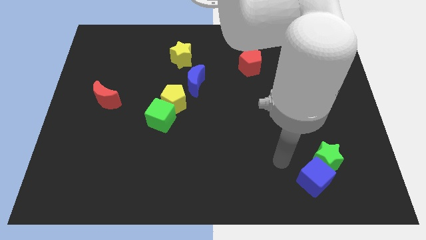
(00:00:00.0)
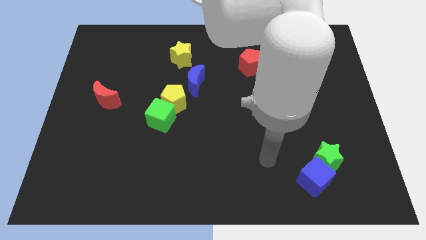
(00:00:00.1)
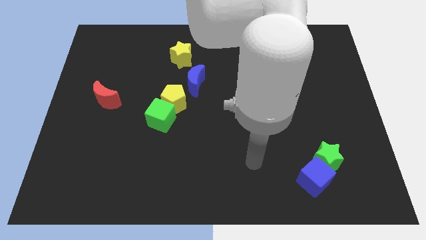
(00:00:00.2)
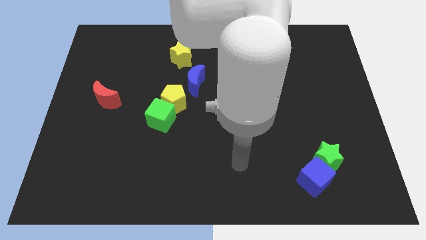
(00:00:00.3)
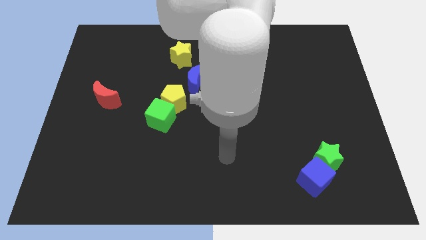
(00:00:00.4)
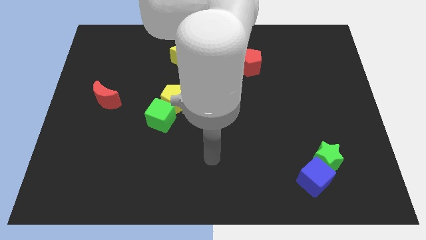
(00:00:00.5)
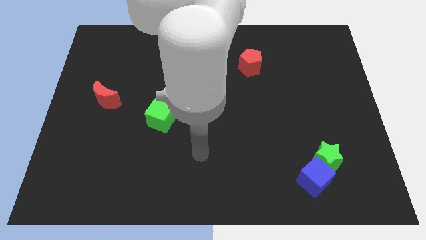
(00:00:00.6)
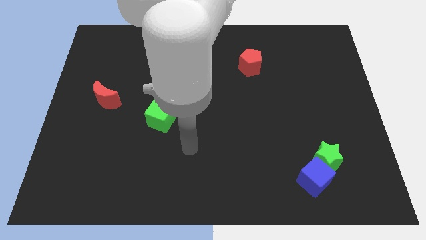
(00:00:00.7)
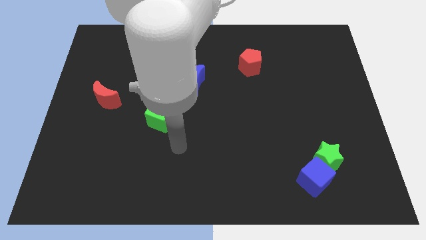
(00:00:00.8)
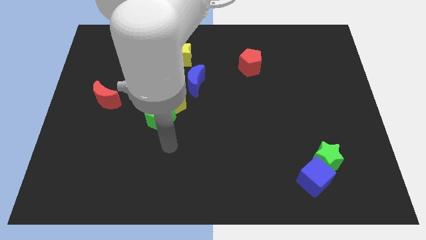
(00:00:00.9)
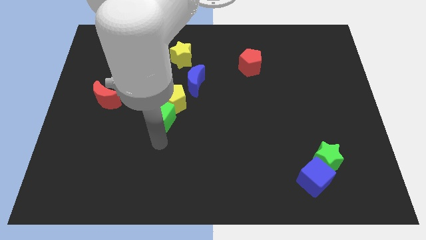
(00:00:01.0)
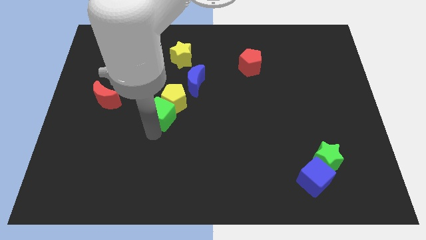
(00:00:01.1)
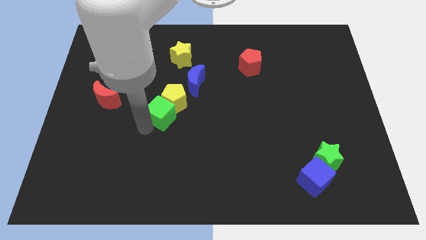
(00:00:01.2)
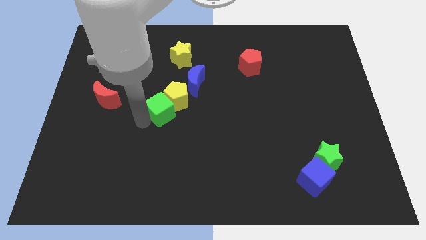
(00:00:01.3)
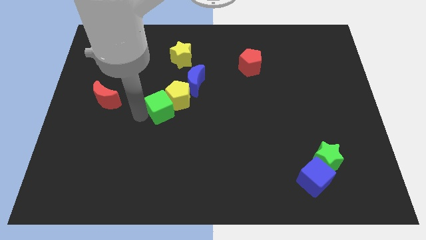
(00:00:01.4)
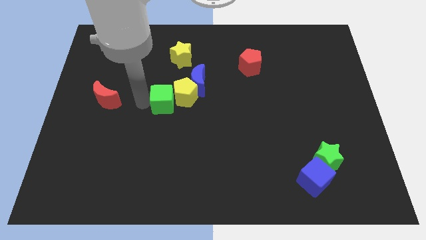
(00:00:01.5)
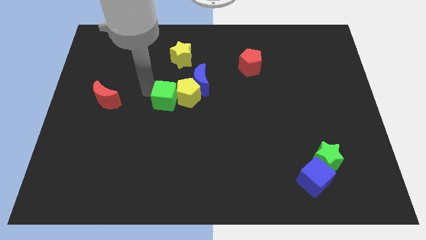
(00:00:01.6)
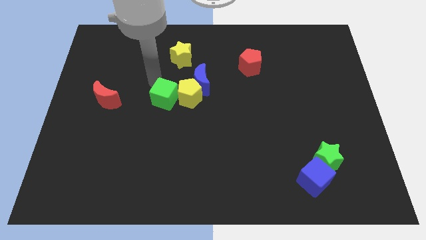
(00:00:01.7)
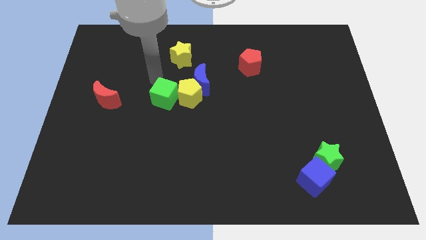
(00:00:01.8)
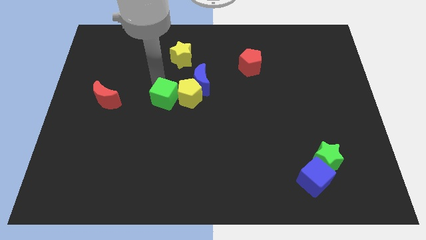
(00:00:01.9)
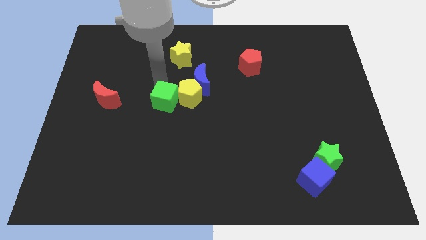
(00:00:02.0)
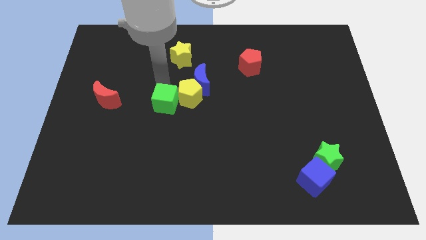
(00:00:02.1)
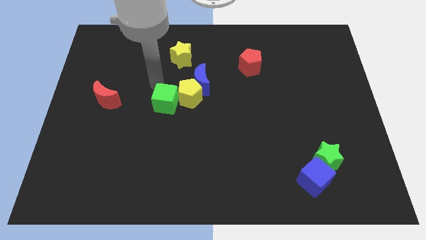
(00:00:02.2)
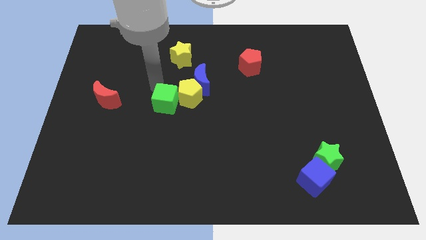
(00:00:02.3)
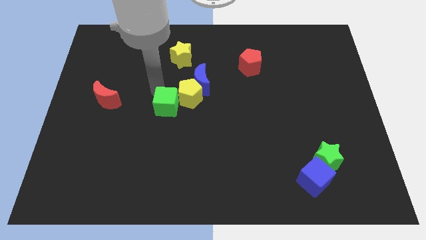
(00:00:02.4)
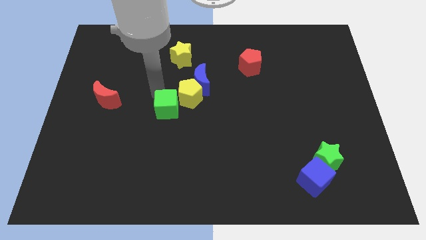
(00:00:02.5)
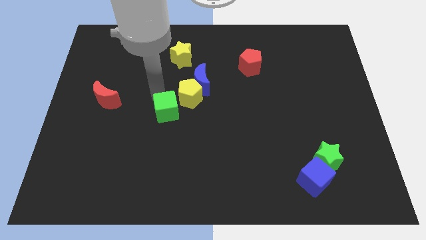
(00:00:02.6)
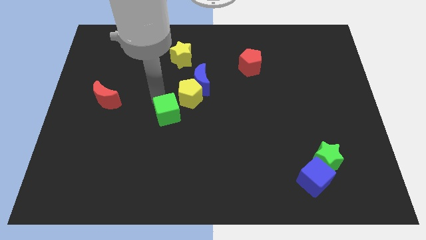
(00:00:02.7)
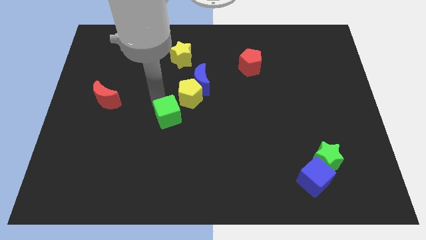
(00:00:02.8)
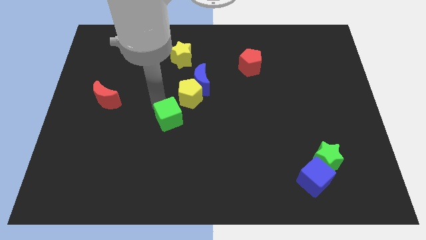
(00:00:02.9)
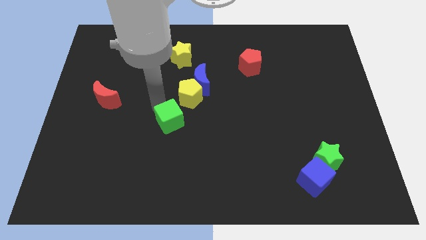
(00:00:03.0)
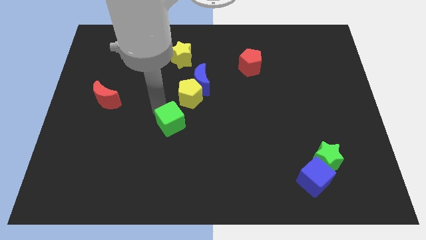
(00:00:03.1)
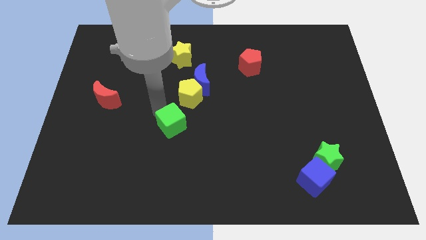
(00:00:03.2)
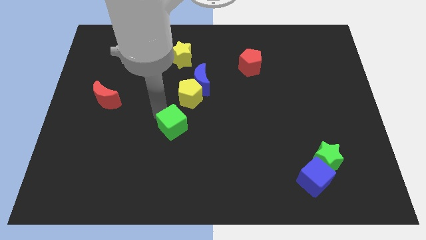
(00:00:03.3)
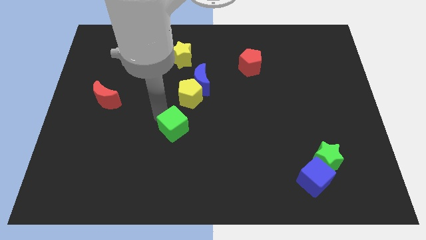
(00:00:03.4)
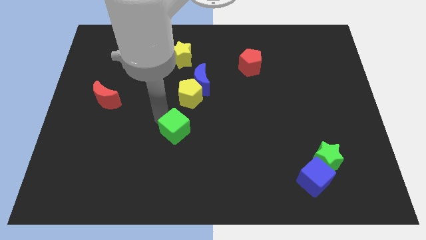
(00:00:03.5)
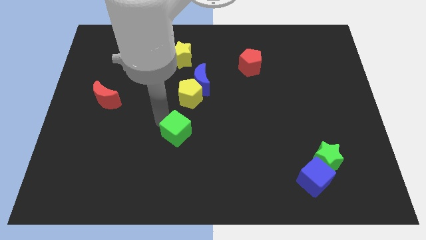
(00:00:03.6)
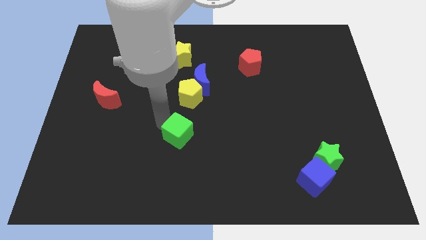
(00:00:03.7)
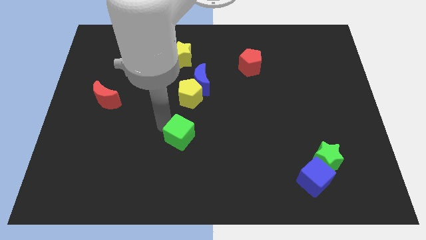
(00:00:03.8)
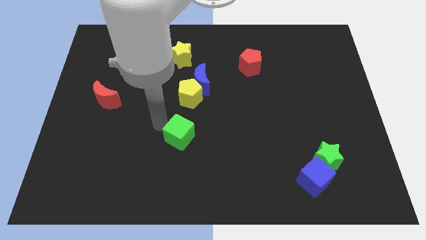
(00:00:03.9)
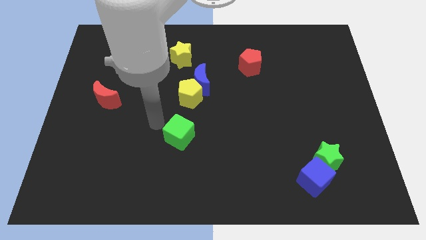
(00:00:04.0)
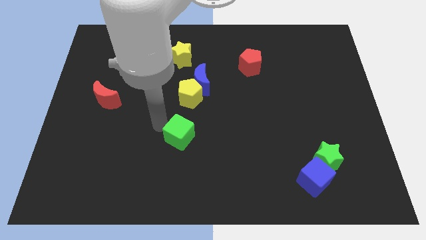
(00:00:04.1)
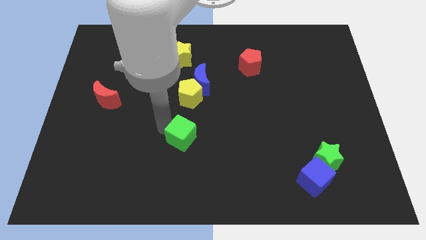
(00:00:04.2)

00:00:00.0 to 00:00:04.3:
slide the green cube down and right diagonally somewhat

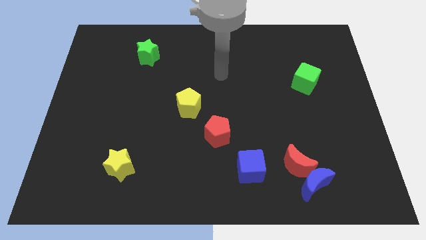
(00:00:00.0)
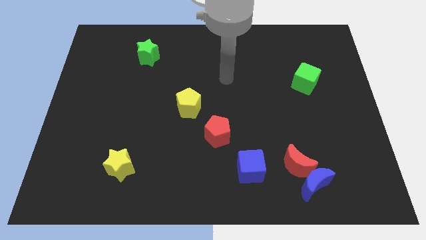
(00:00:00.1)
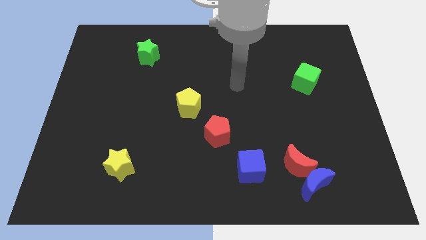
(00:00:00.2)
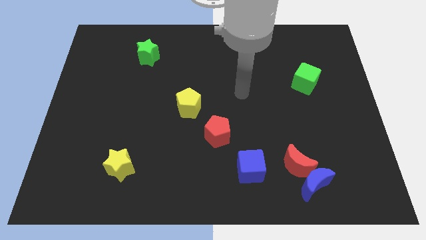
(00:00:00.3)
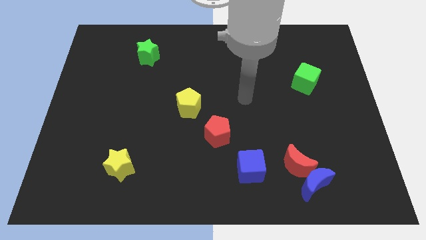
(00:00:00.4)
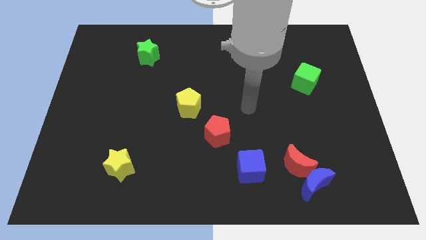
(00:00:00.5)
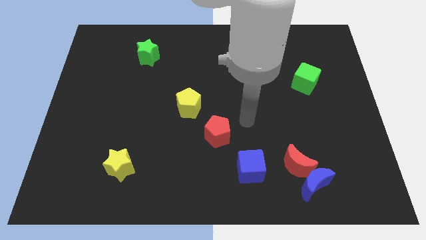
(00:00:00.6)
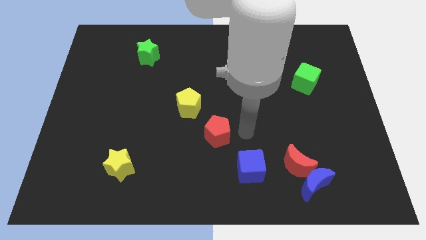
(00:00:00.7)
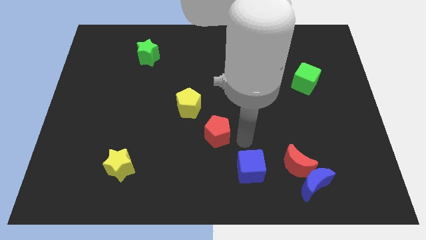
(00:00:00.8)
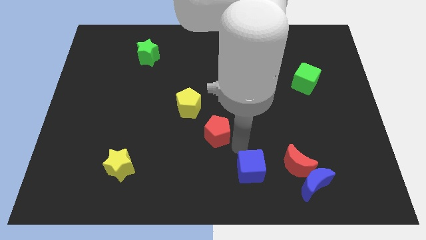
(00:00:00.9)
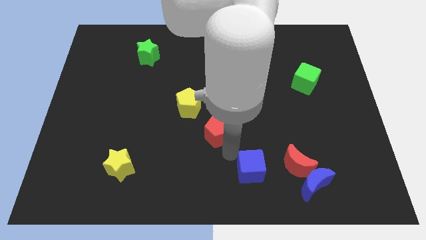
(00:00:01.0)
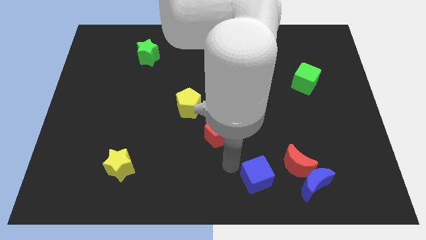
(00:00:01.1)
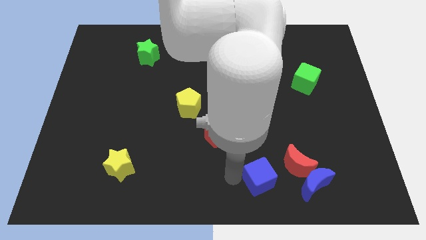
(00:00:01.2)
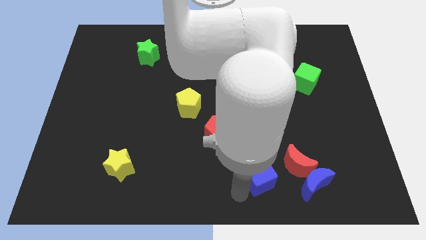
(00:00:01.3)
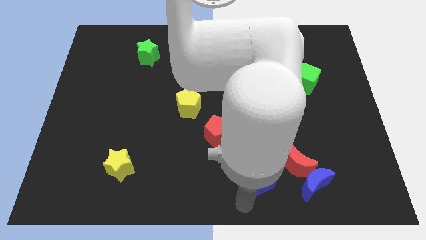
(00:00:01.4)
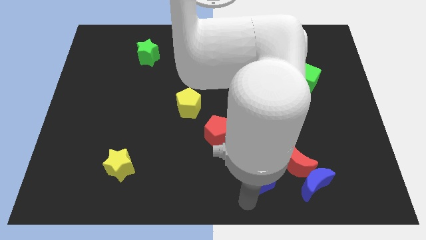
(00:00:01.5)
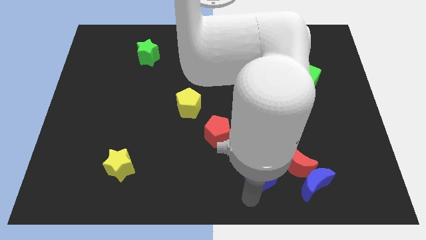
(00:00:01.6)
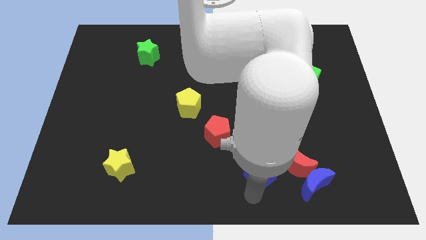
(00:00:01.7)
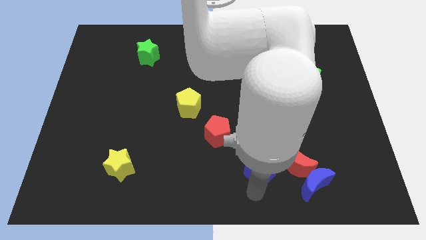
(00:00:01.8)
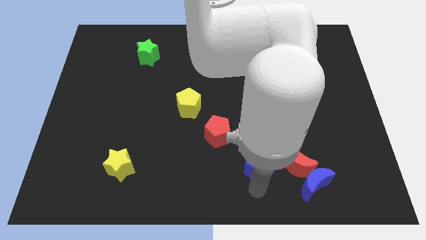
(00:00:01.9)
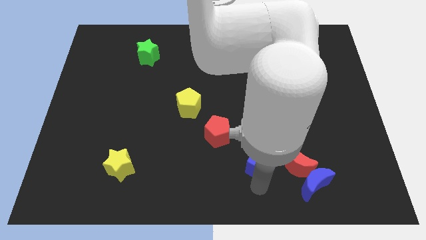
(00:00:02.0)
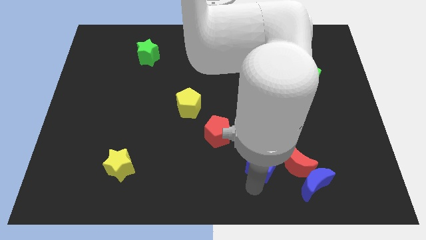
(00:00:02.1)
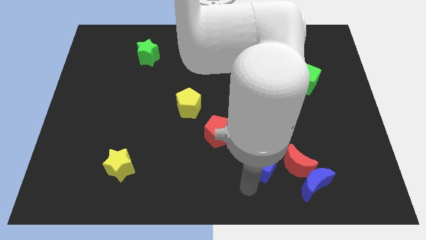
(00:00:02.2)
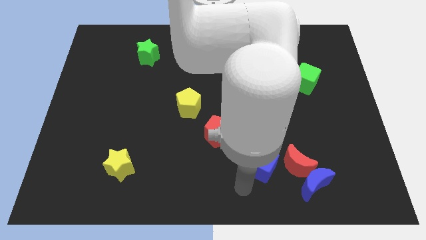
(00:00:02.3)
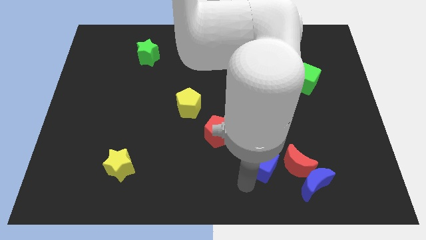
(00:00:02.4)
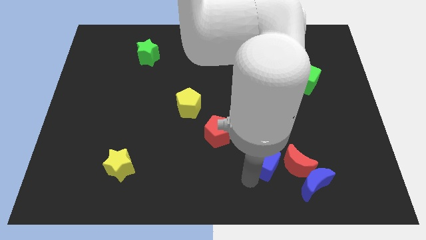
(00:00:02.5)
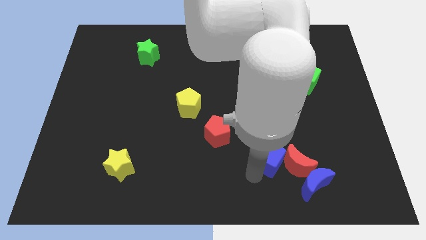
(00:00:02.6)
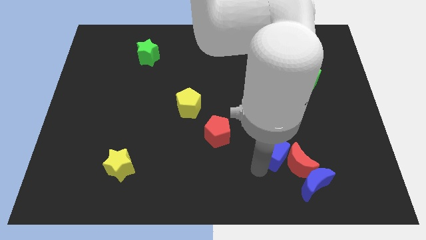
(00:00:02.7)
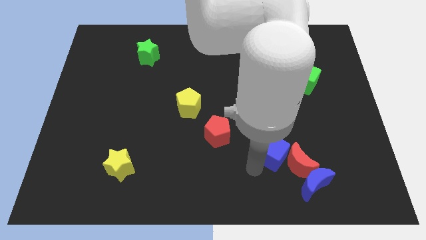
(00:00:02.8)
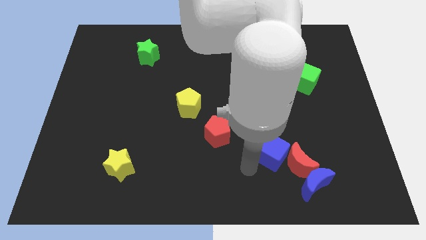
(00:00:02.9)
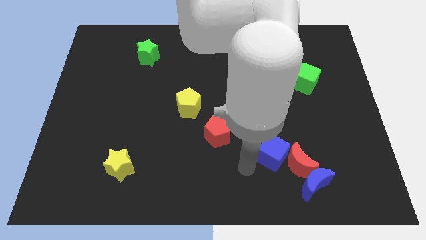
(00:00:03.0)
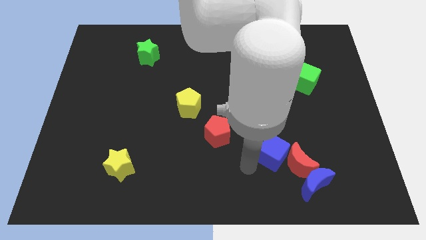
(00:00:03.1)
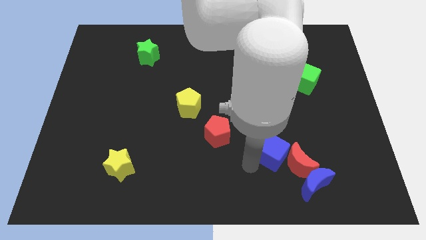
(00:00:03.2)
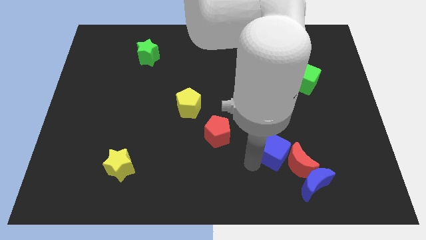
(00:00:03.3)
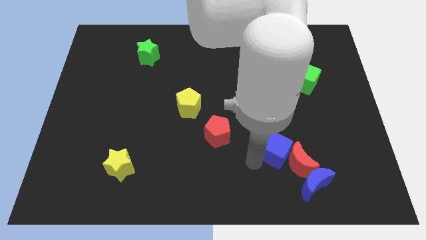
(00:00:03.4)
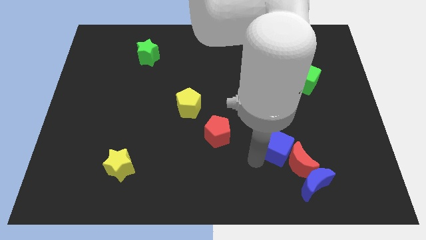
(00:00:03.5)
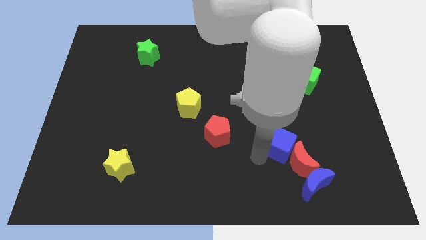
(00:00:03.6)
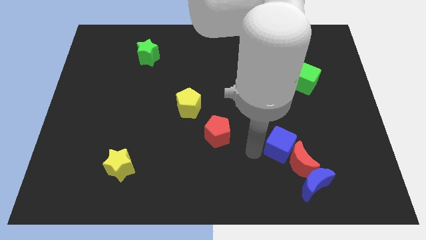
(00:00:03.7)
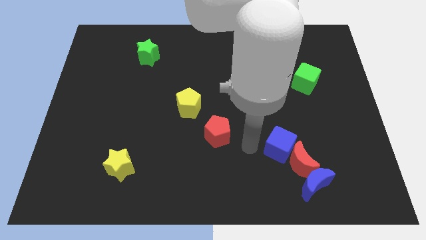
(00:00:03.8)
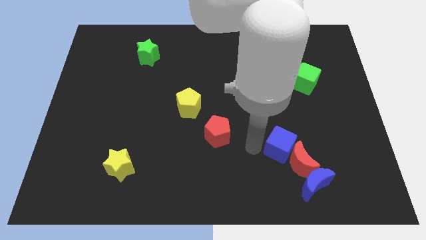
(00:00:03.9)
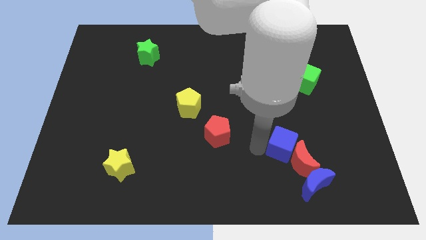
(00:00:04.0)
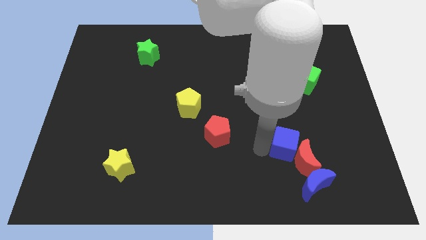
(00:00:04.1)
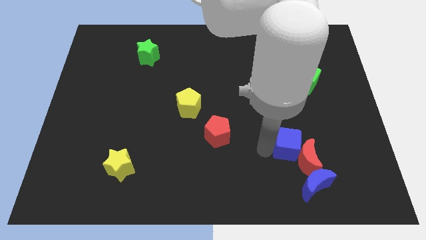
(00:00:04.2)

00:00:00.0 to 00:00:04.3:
slightly slide the blue cube to the right
